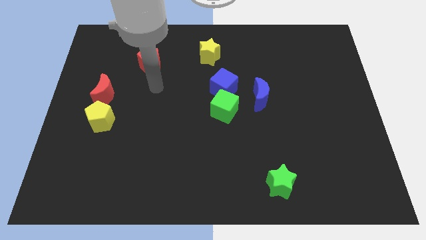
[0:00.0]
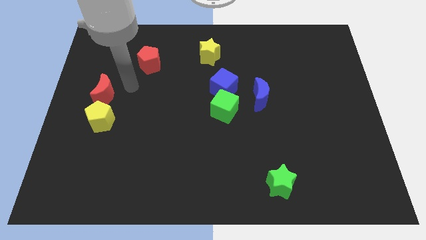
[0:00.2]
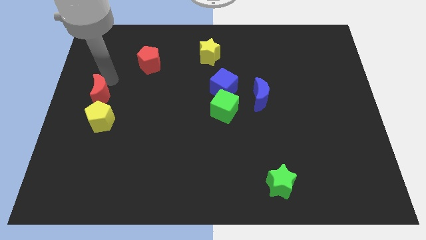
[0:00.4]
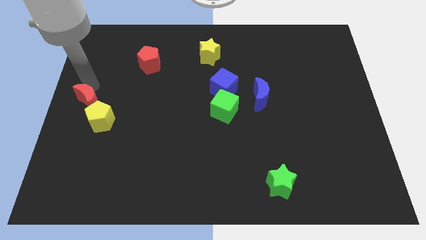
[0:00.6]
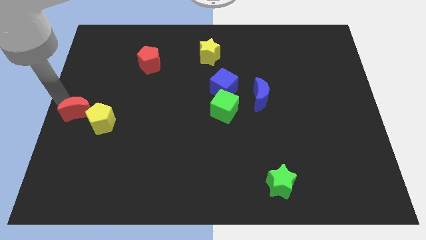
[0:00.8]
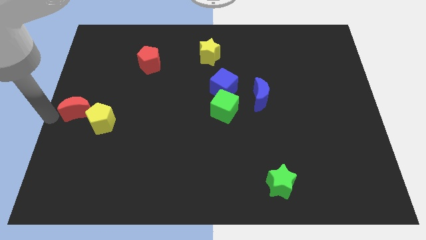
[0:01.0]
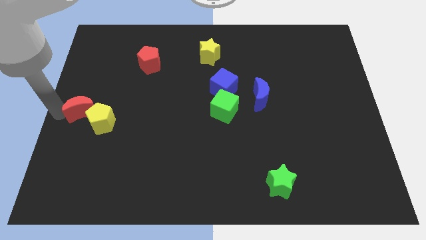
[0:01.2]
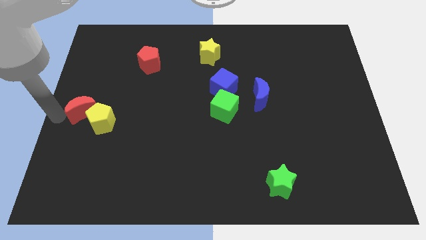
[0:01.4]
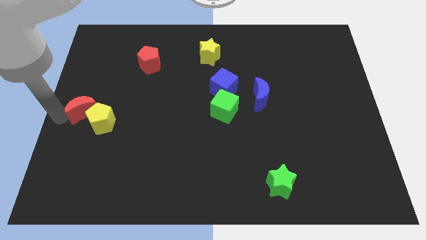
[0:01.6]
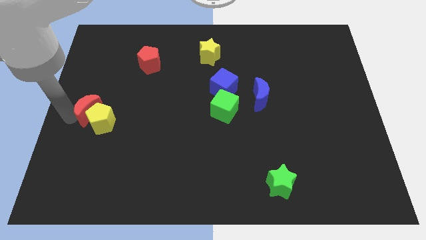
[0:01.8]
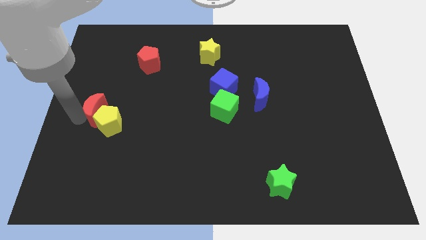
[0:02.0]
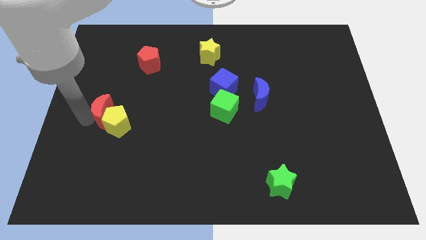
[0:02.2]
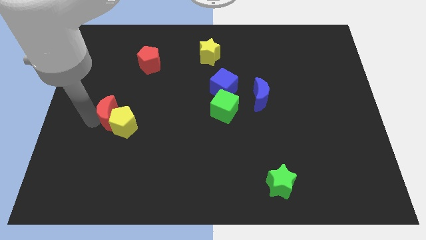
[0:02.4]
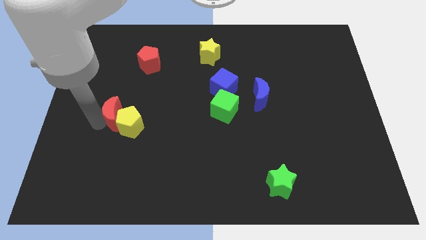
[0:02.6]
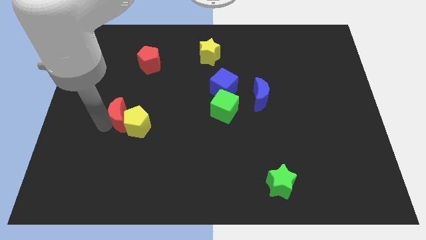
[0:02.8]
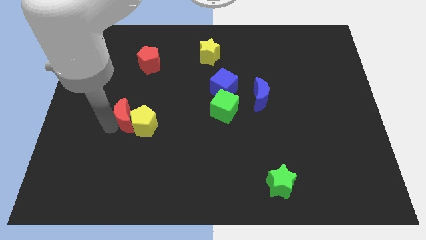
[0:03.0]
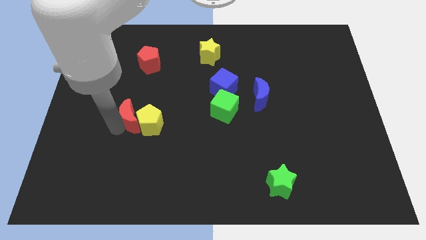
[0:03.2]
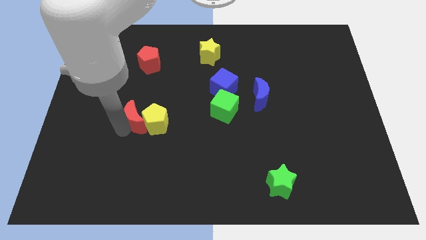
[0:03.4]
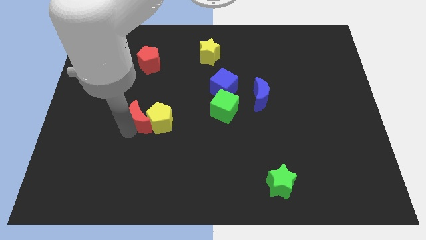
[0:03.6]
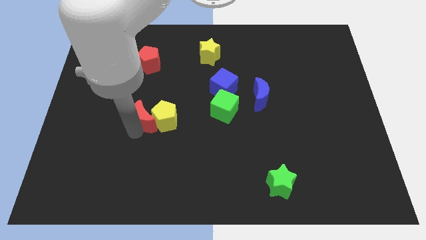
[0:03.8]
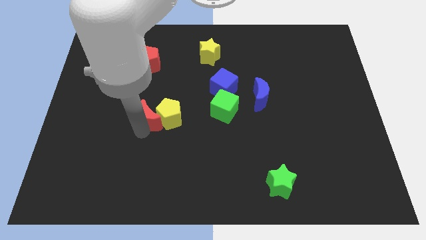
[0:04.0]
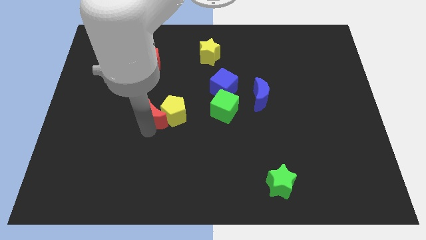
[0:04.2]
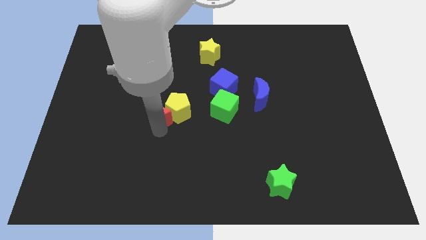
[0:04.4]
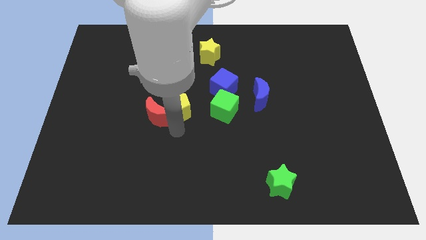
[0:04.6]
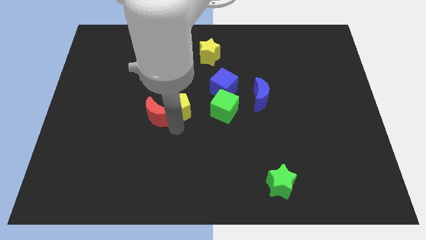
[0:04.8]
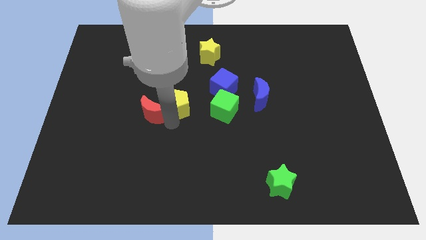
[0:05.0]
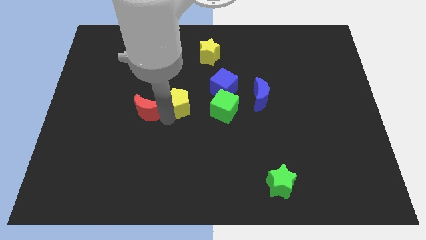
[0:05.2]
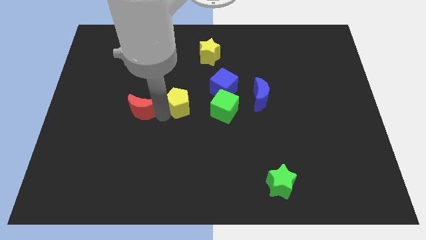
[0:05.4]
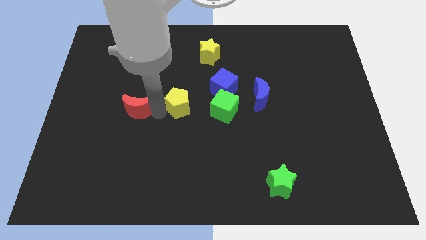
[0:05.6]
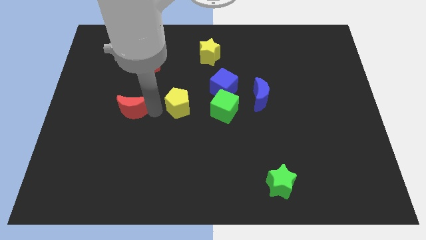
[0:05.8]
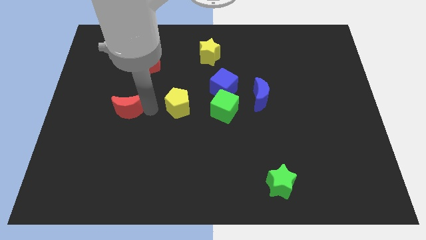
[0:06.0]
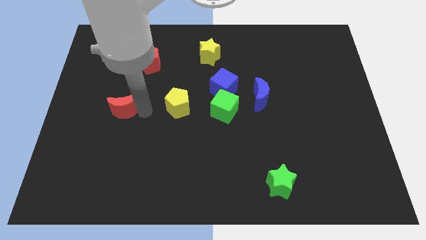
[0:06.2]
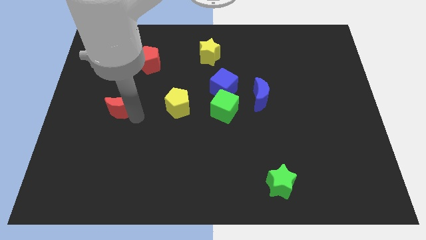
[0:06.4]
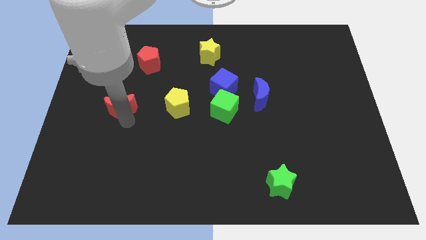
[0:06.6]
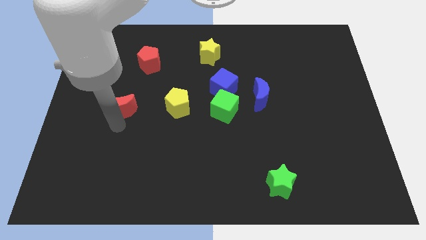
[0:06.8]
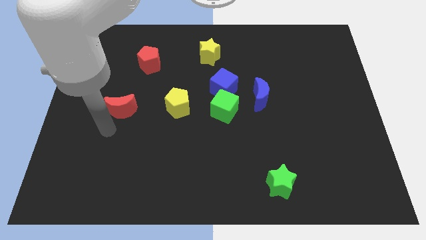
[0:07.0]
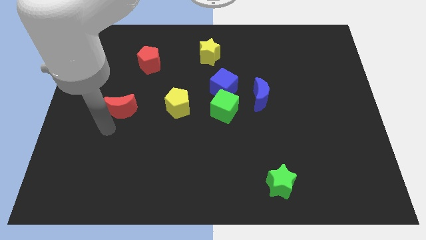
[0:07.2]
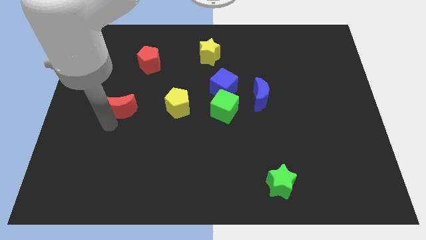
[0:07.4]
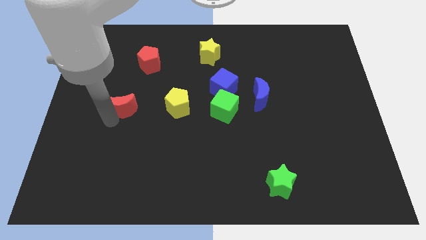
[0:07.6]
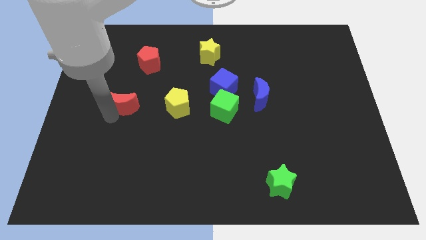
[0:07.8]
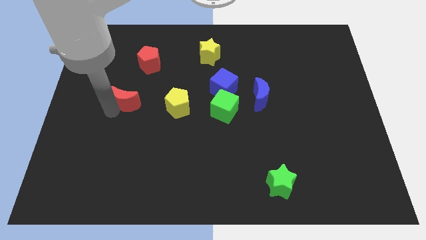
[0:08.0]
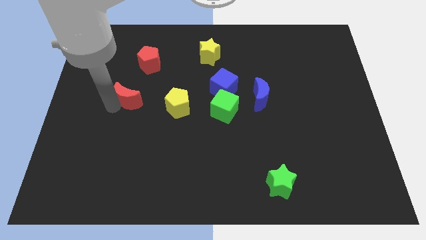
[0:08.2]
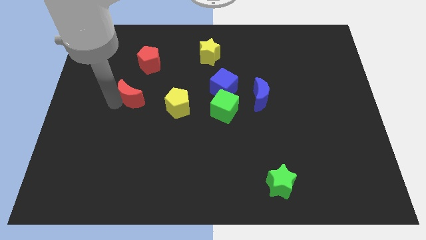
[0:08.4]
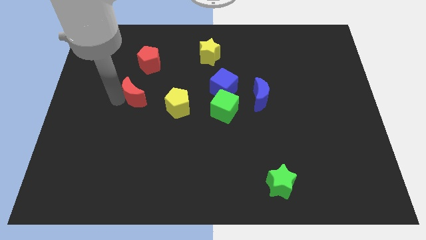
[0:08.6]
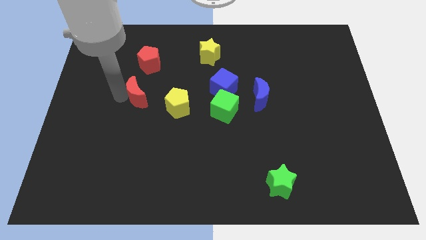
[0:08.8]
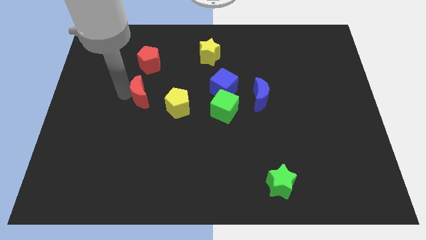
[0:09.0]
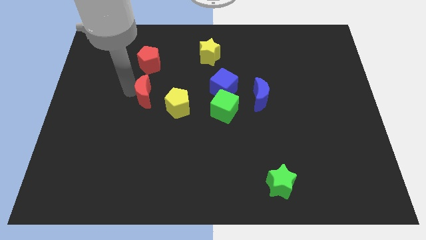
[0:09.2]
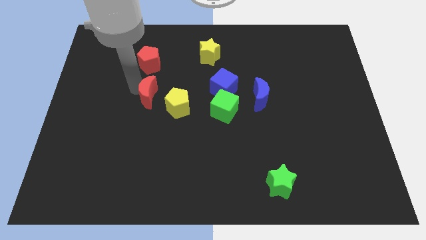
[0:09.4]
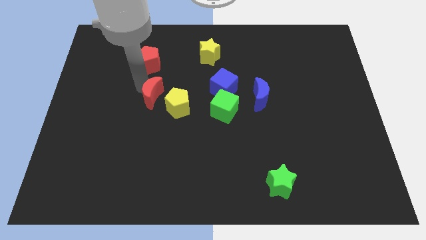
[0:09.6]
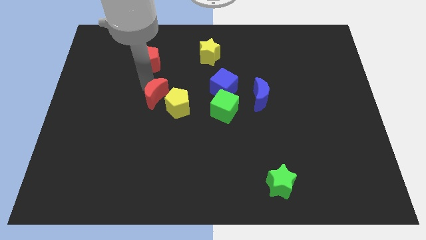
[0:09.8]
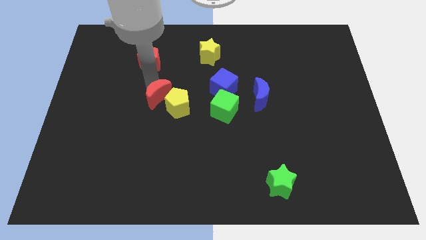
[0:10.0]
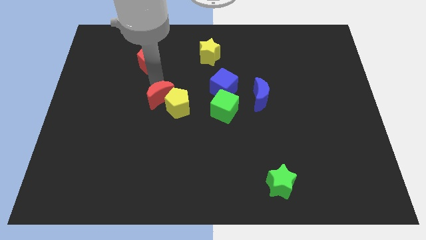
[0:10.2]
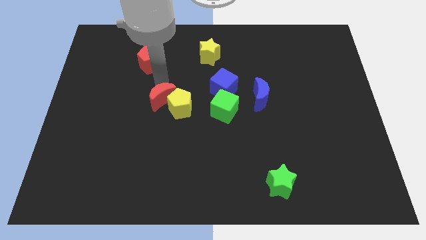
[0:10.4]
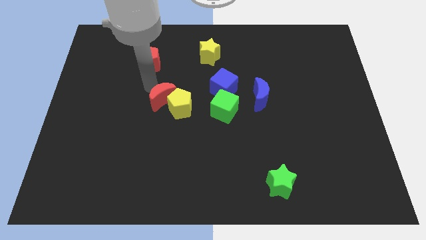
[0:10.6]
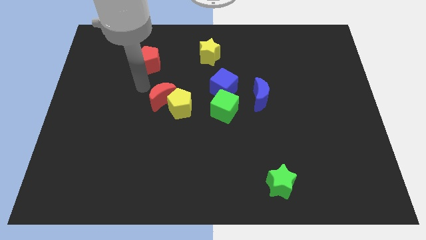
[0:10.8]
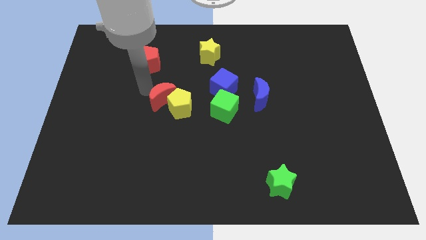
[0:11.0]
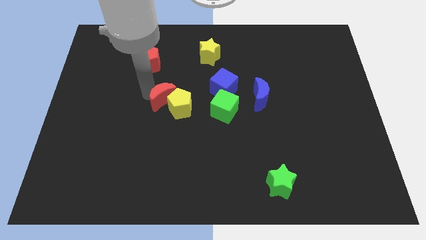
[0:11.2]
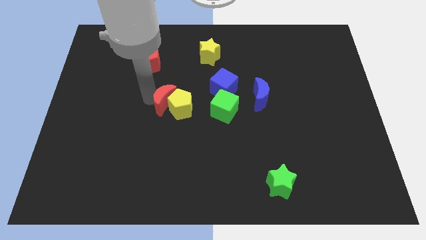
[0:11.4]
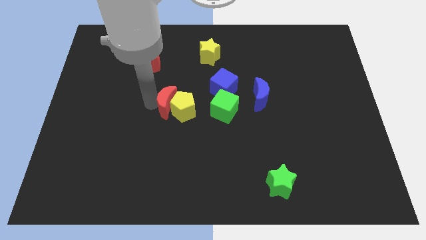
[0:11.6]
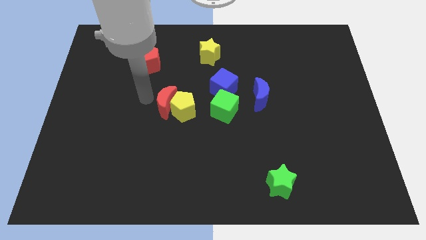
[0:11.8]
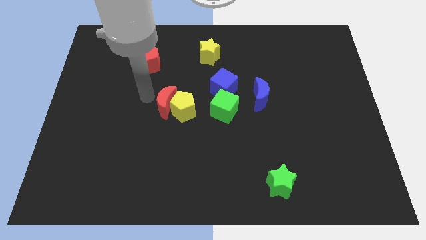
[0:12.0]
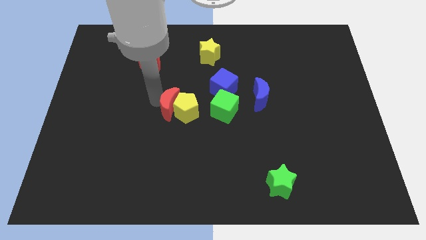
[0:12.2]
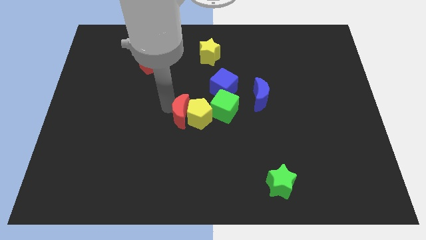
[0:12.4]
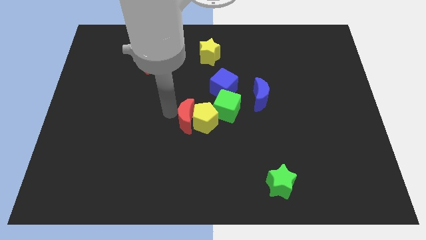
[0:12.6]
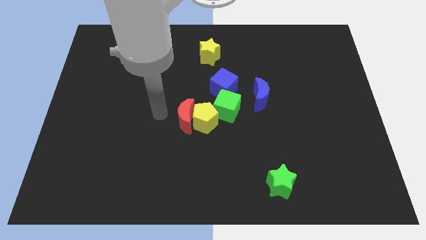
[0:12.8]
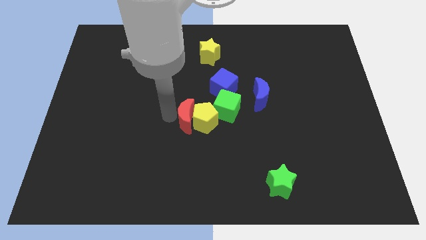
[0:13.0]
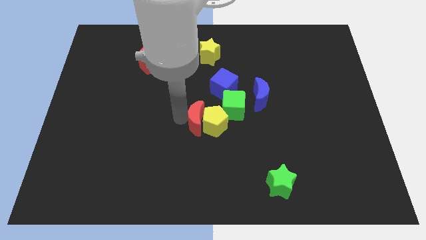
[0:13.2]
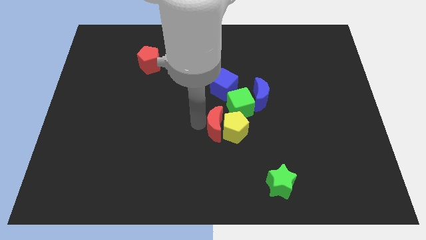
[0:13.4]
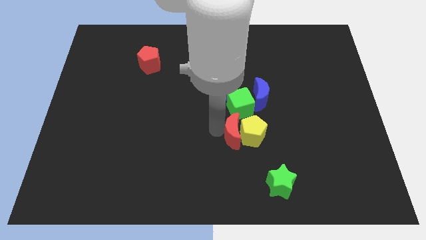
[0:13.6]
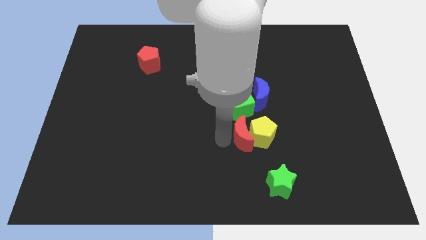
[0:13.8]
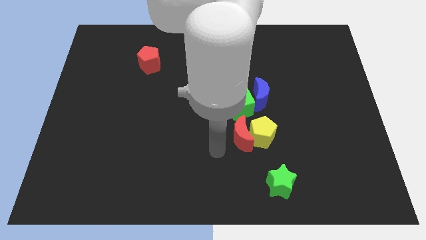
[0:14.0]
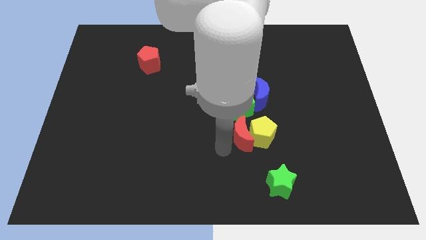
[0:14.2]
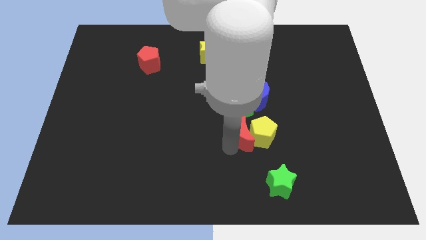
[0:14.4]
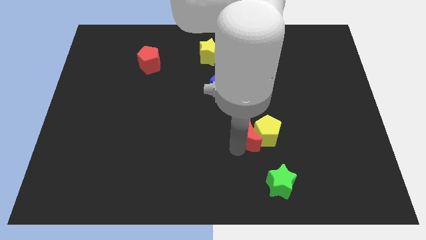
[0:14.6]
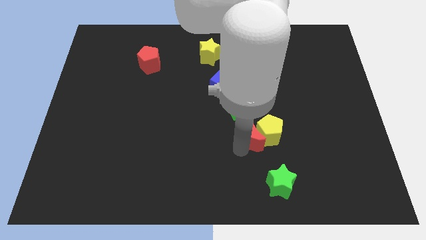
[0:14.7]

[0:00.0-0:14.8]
slide the red moon to the bottom right side of the green cube

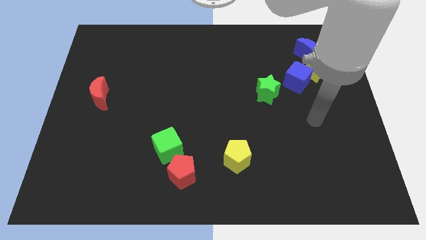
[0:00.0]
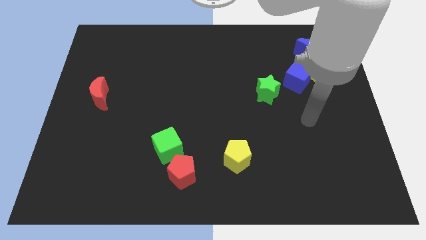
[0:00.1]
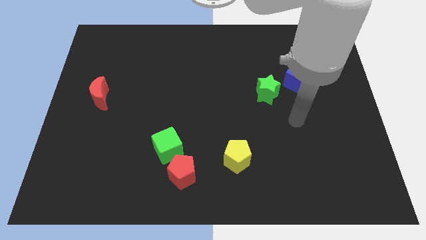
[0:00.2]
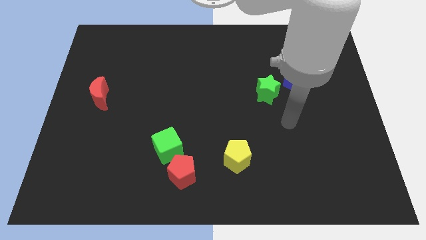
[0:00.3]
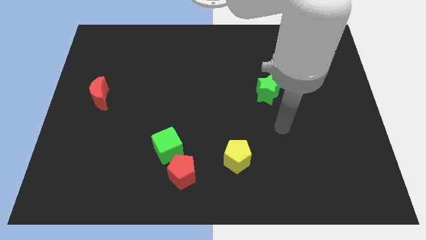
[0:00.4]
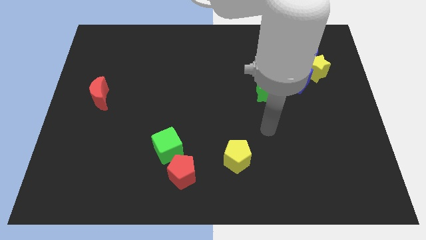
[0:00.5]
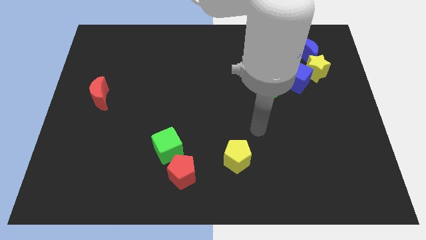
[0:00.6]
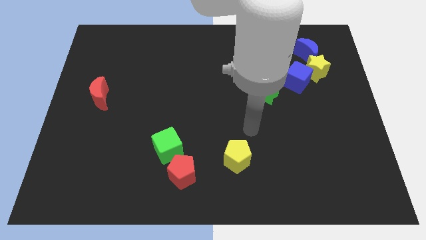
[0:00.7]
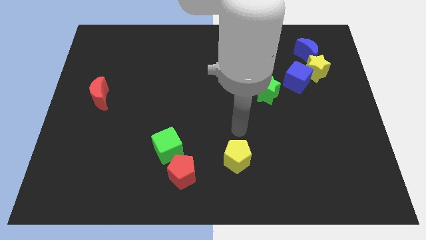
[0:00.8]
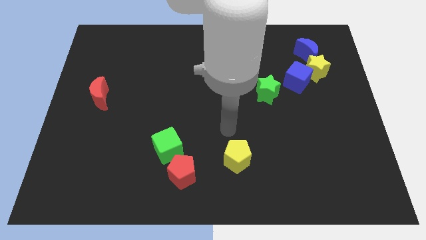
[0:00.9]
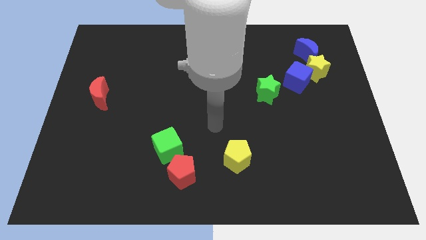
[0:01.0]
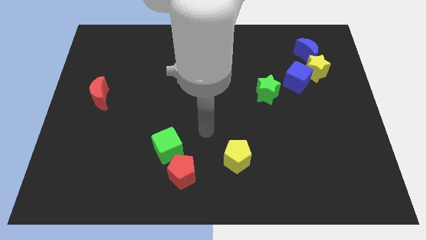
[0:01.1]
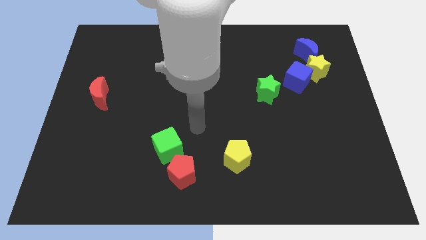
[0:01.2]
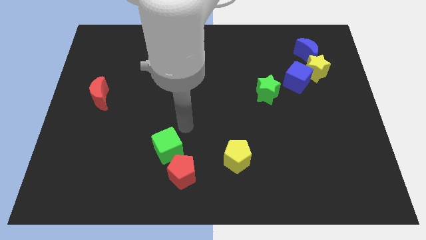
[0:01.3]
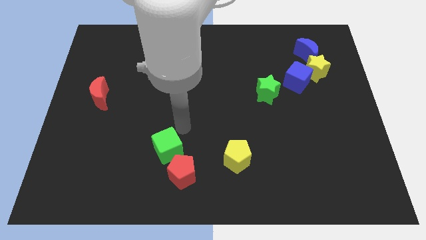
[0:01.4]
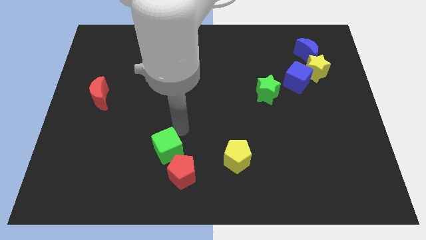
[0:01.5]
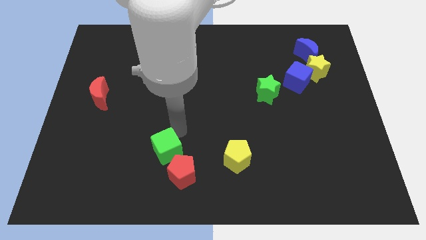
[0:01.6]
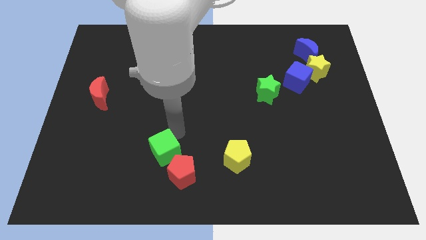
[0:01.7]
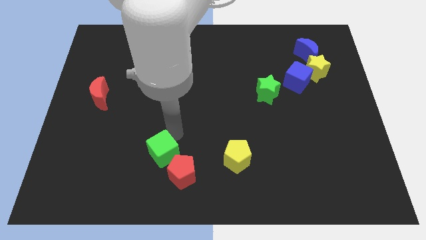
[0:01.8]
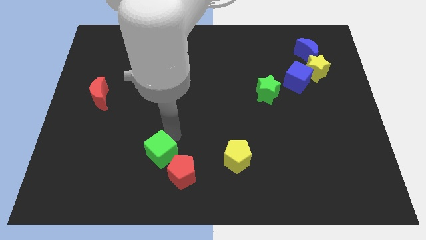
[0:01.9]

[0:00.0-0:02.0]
move the green cube left of the red pentagon
